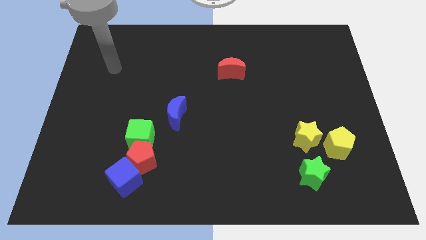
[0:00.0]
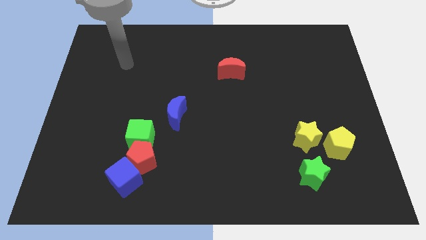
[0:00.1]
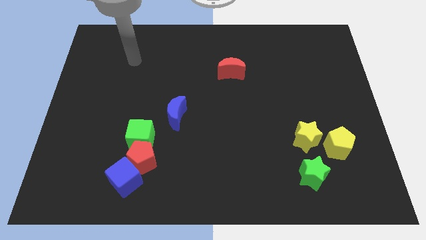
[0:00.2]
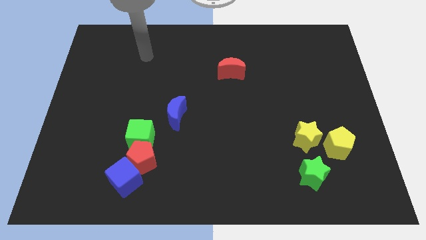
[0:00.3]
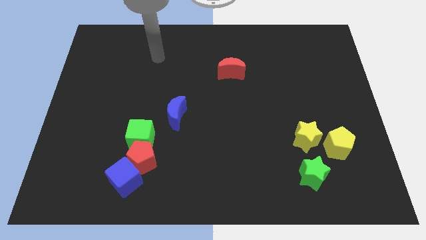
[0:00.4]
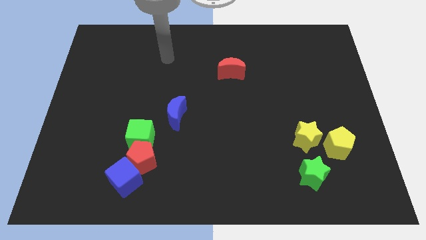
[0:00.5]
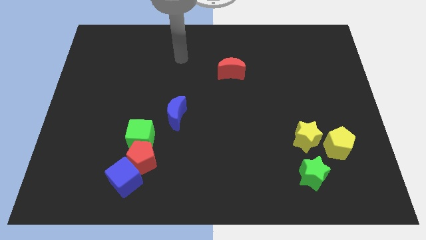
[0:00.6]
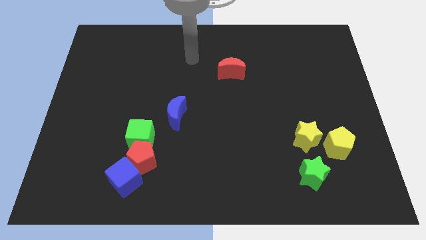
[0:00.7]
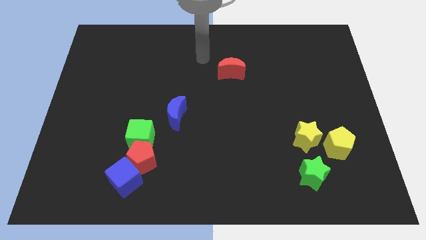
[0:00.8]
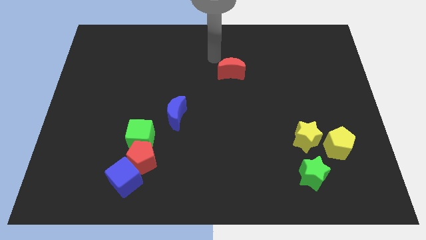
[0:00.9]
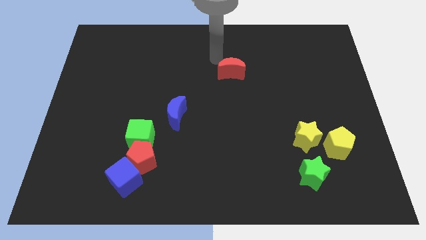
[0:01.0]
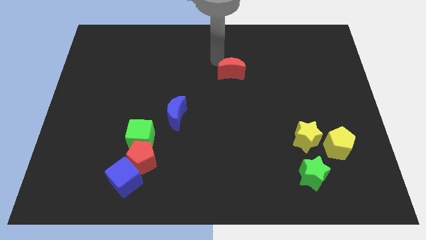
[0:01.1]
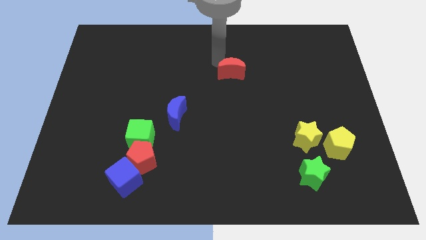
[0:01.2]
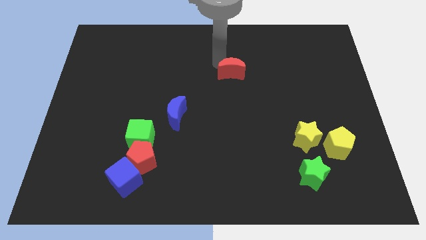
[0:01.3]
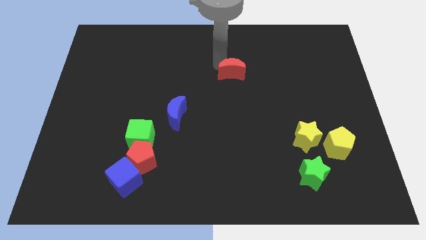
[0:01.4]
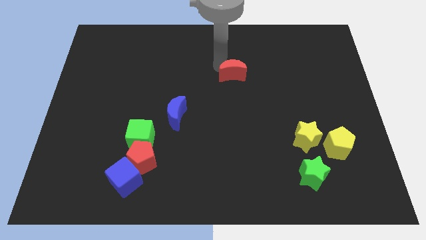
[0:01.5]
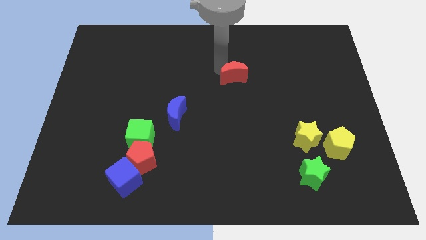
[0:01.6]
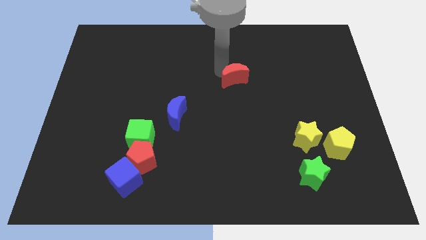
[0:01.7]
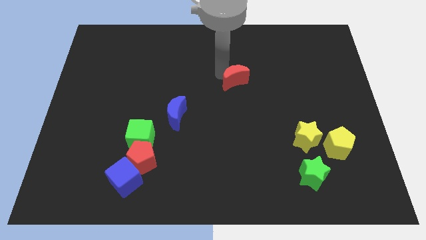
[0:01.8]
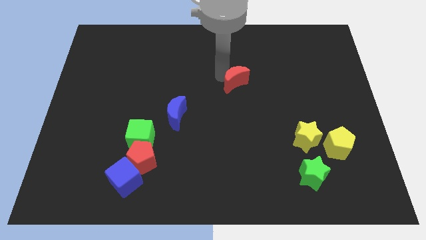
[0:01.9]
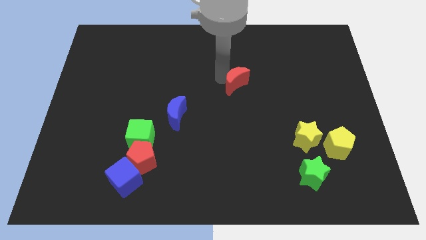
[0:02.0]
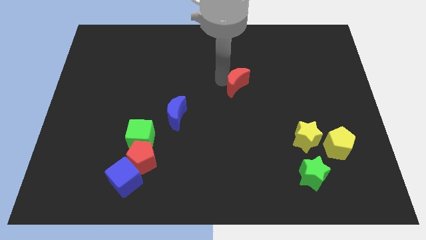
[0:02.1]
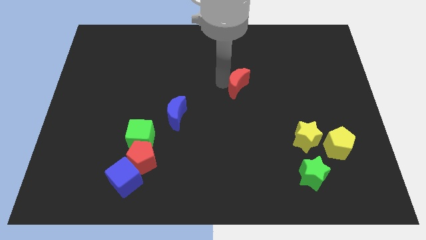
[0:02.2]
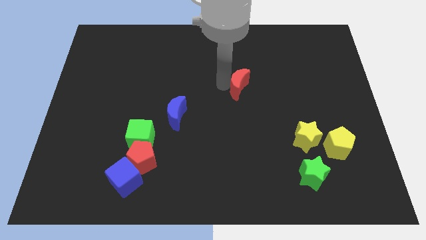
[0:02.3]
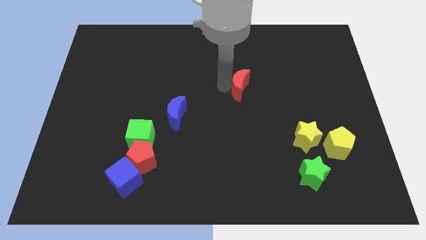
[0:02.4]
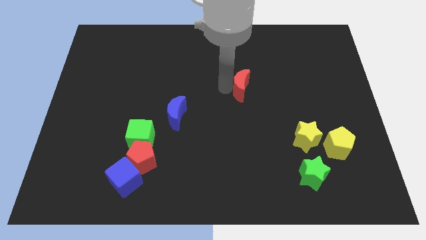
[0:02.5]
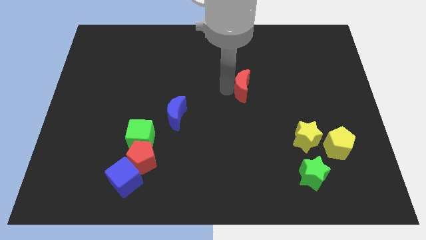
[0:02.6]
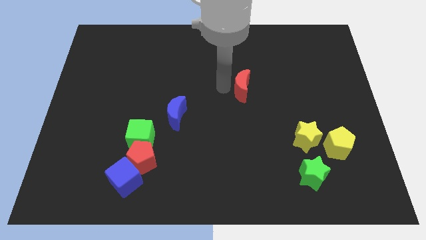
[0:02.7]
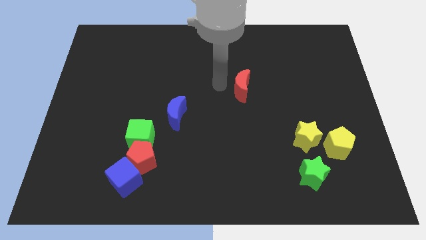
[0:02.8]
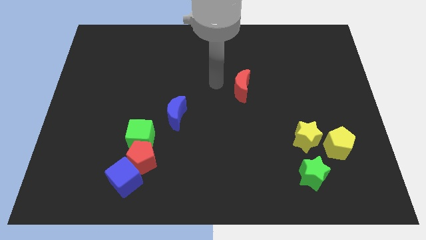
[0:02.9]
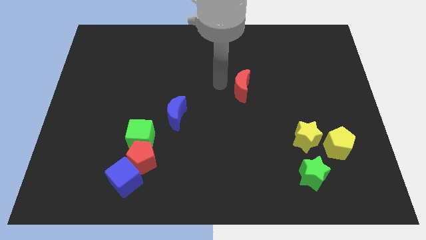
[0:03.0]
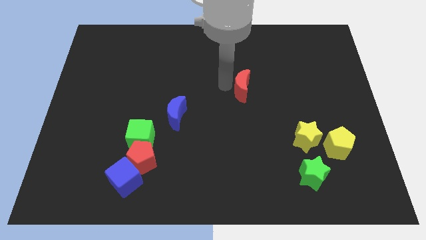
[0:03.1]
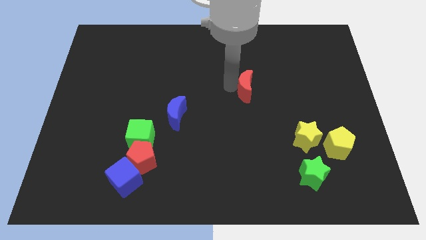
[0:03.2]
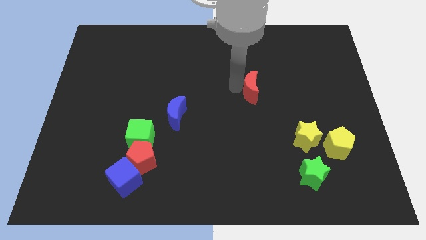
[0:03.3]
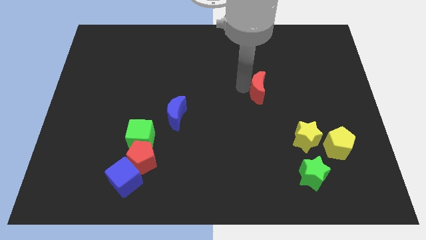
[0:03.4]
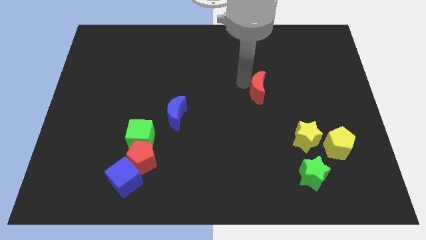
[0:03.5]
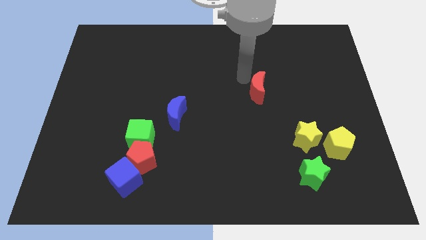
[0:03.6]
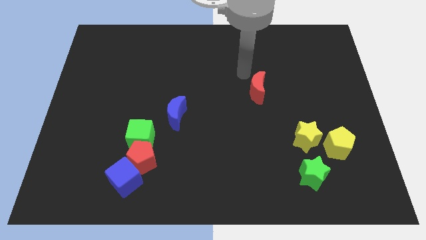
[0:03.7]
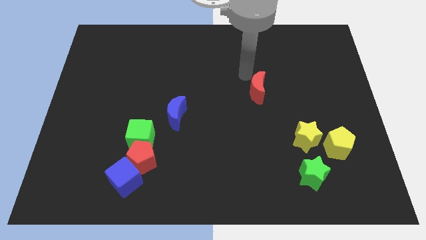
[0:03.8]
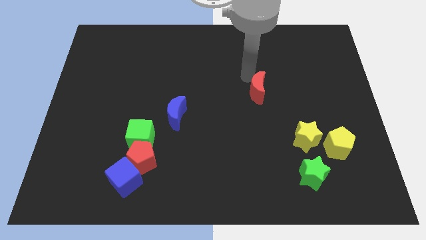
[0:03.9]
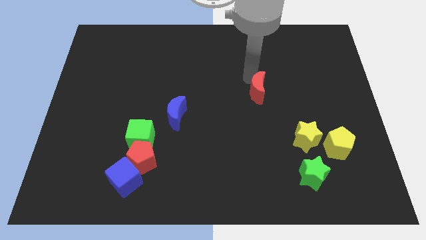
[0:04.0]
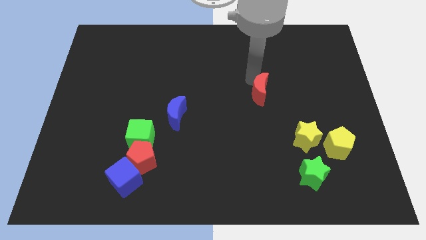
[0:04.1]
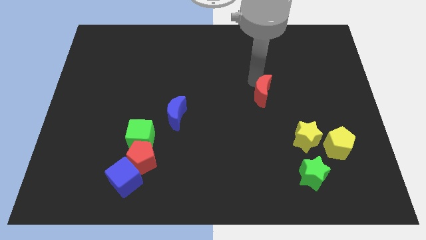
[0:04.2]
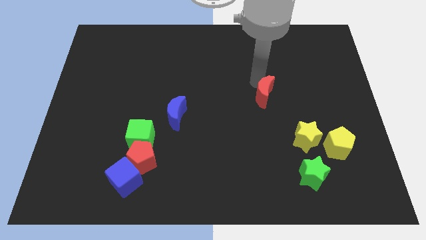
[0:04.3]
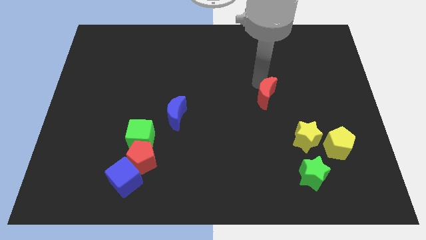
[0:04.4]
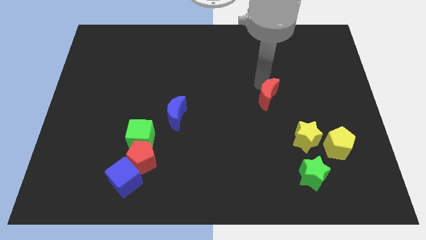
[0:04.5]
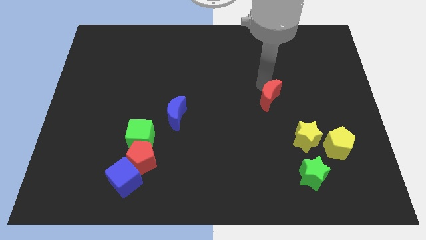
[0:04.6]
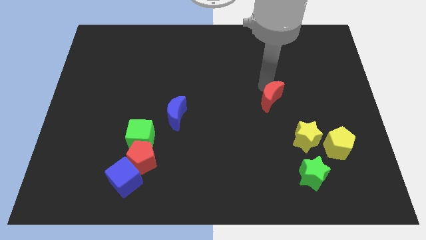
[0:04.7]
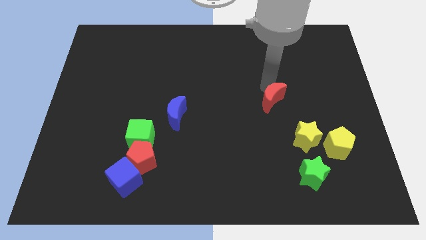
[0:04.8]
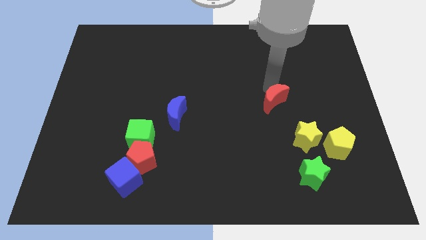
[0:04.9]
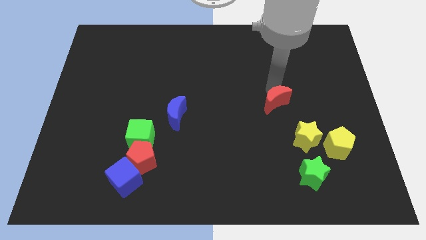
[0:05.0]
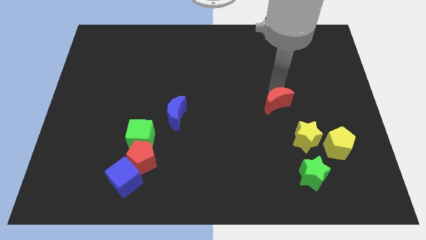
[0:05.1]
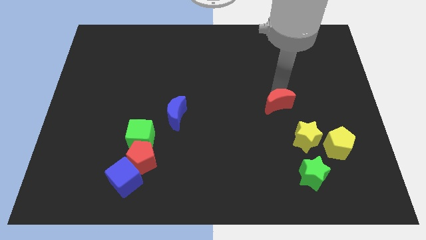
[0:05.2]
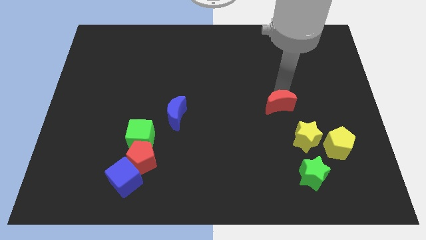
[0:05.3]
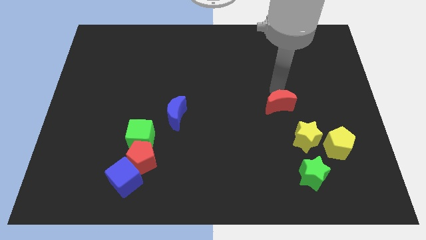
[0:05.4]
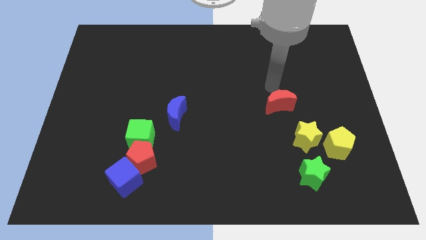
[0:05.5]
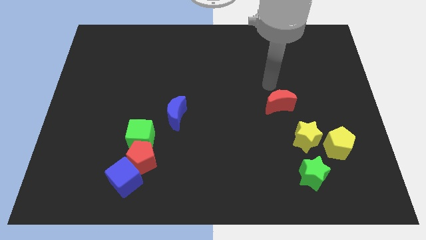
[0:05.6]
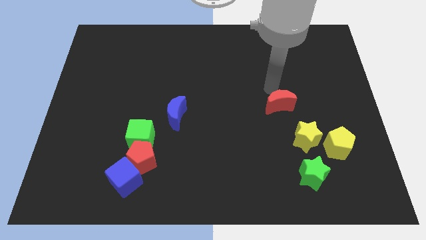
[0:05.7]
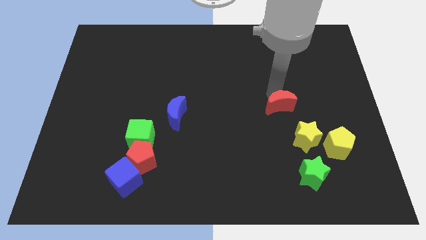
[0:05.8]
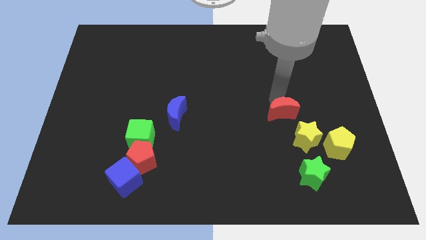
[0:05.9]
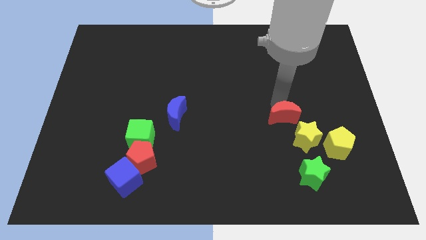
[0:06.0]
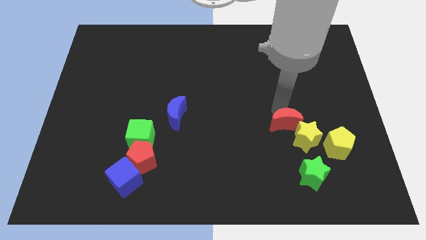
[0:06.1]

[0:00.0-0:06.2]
put the red moon next to the yellow star
